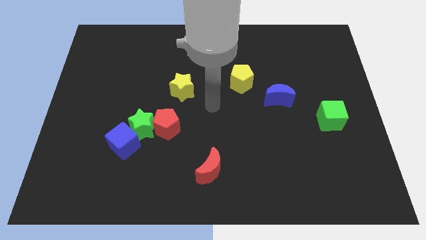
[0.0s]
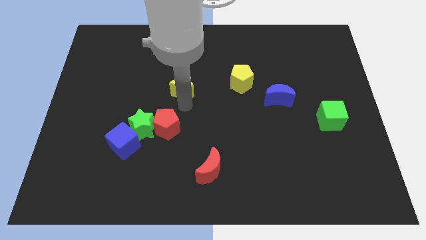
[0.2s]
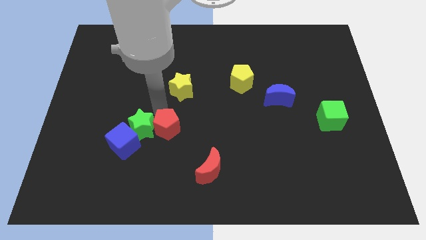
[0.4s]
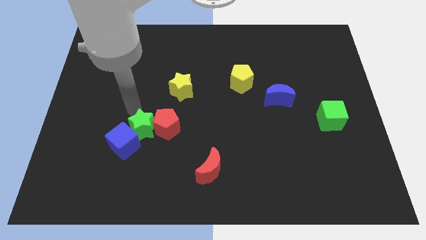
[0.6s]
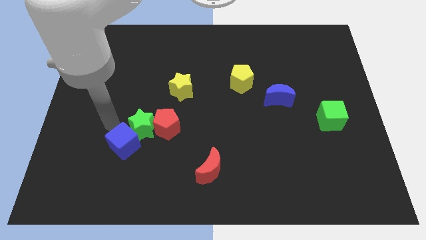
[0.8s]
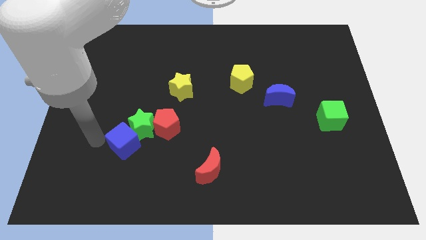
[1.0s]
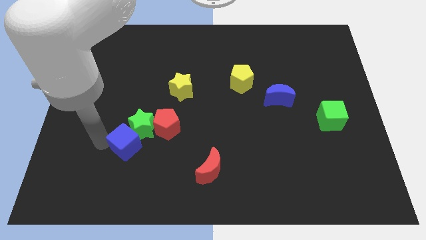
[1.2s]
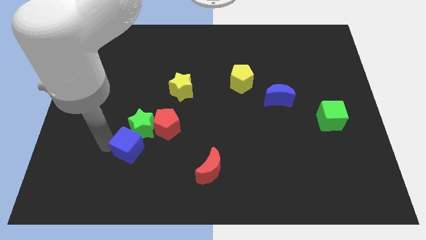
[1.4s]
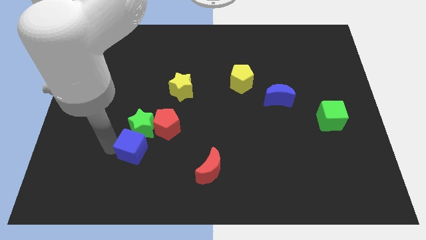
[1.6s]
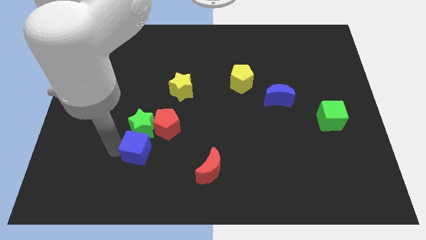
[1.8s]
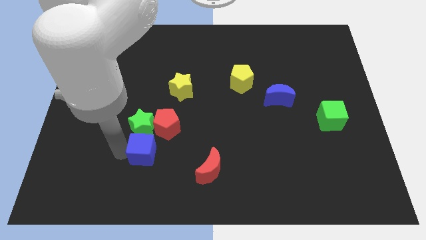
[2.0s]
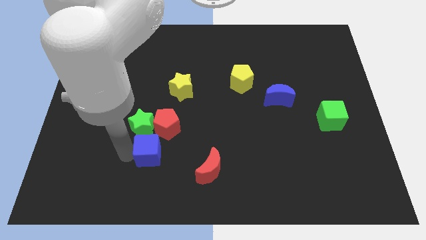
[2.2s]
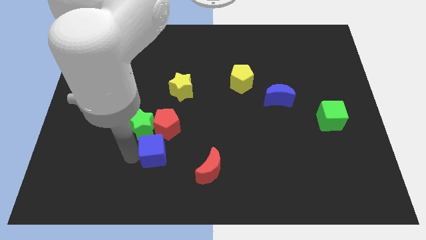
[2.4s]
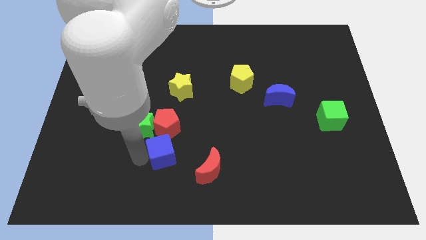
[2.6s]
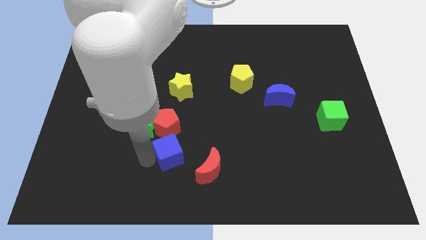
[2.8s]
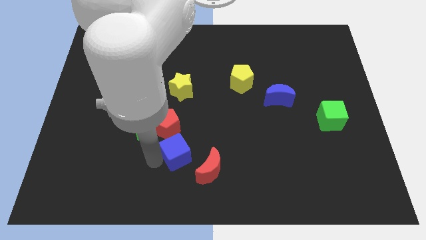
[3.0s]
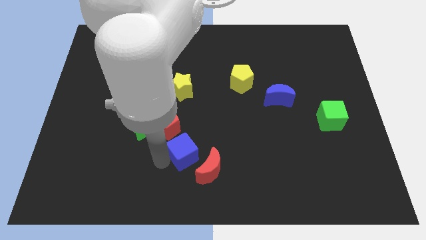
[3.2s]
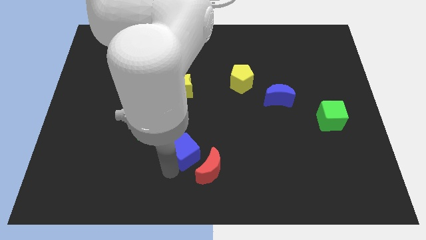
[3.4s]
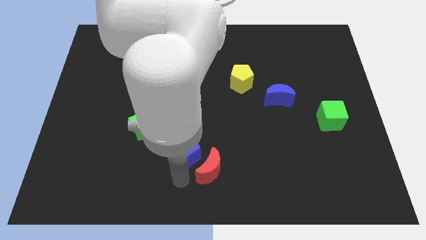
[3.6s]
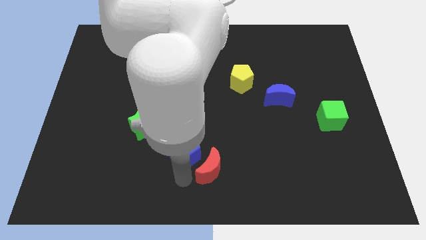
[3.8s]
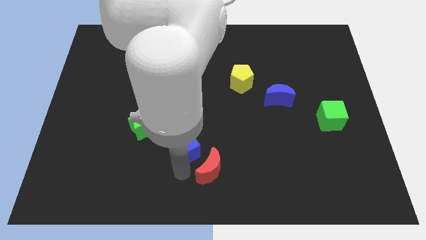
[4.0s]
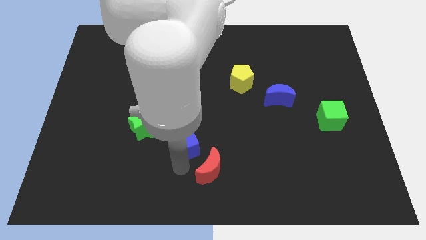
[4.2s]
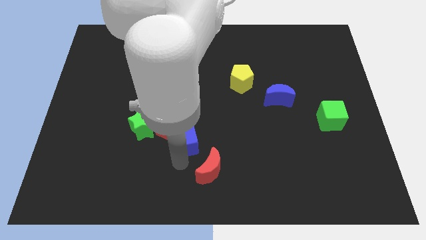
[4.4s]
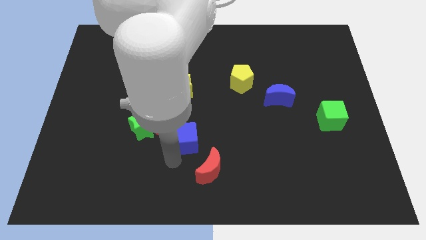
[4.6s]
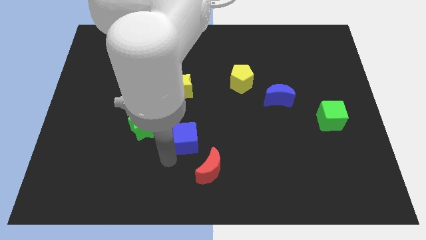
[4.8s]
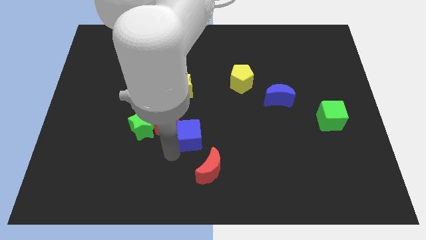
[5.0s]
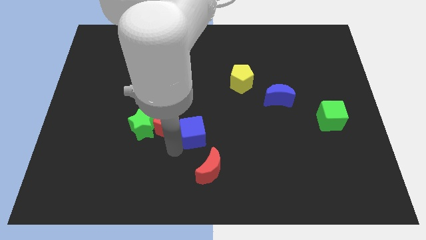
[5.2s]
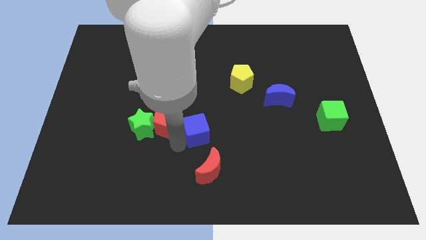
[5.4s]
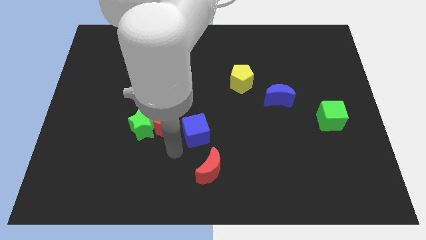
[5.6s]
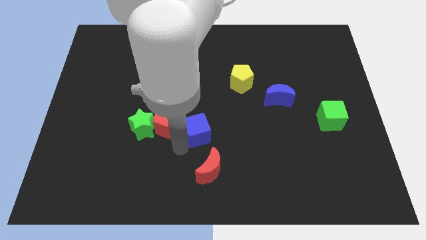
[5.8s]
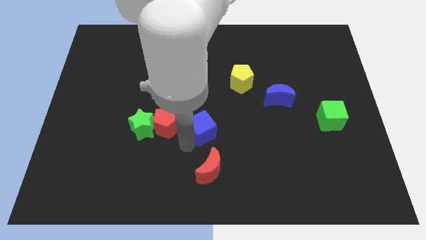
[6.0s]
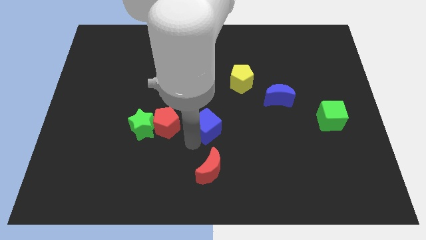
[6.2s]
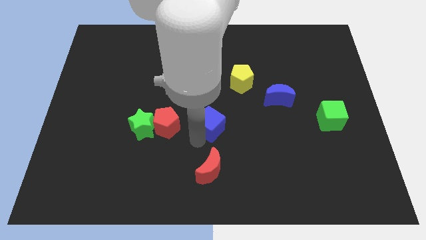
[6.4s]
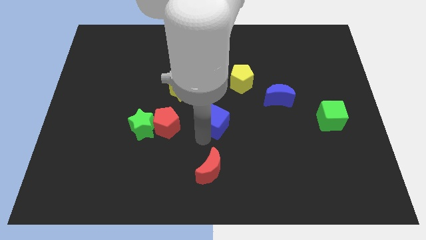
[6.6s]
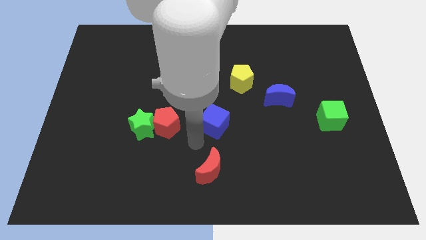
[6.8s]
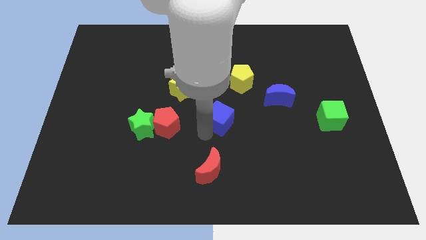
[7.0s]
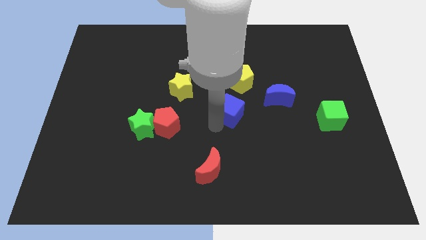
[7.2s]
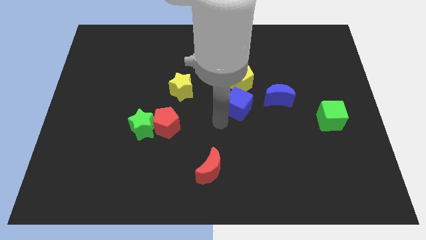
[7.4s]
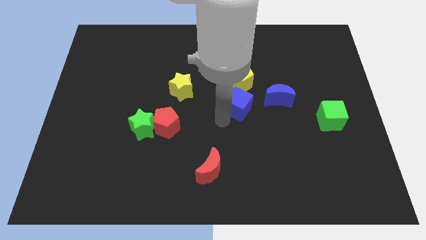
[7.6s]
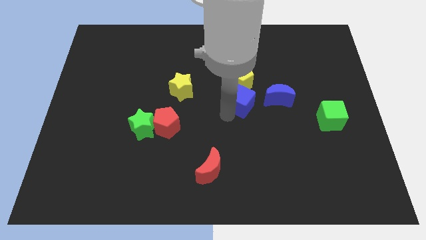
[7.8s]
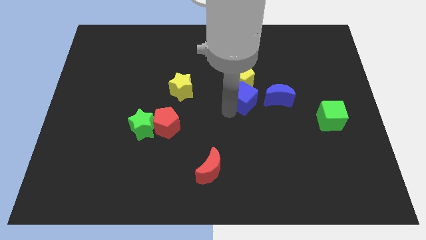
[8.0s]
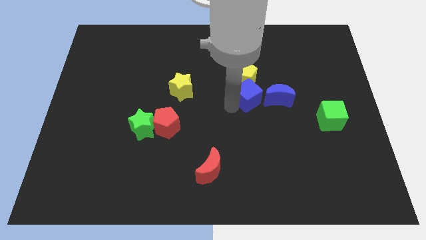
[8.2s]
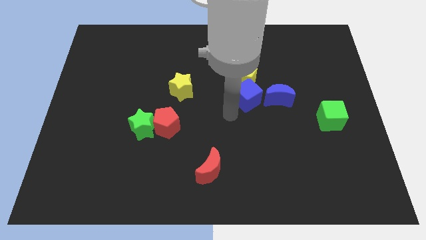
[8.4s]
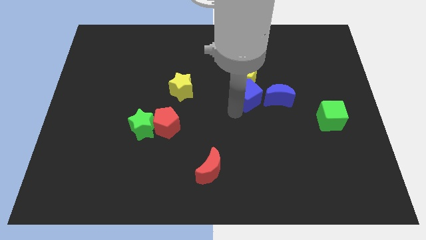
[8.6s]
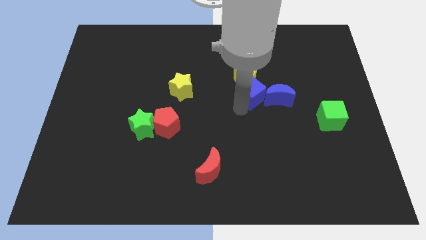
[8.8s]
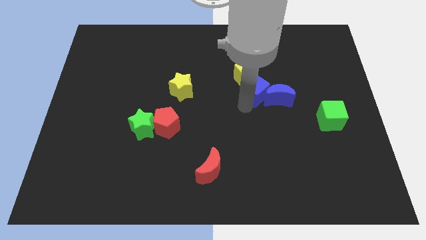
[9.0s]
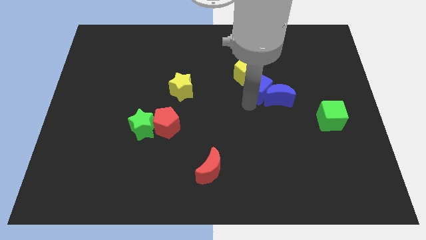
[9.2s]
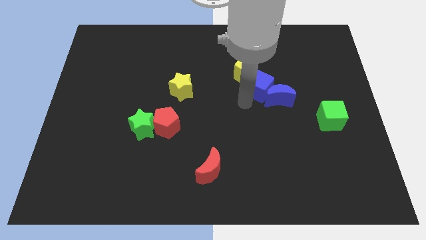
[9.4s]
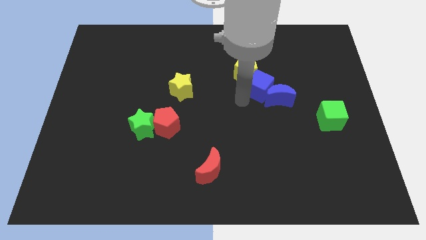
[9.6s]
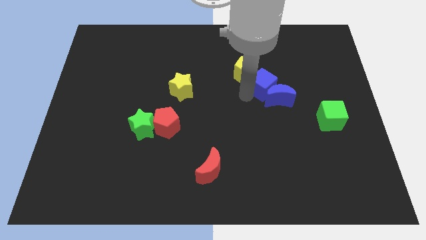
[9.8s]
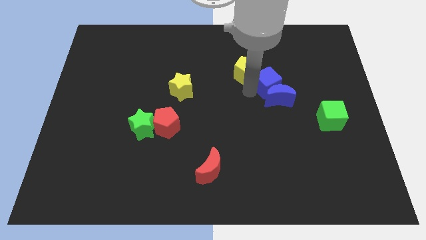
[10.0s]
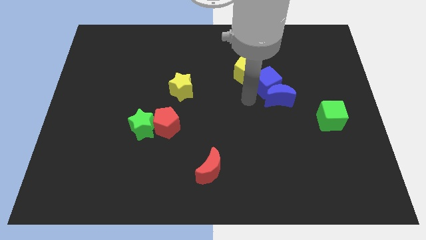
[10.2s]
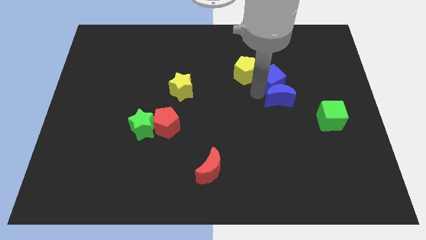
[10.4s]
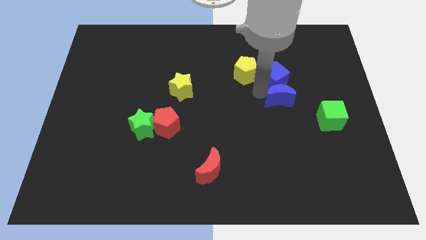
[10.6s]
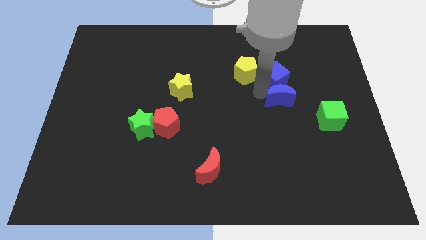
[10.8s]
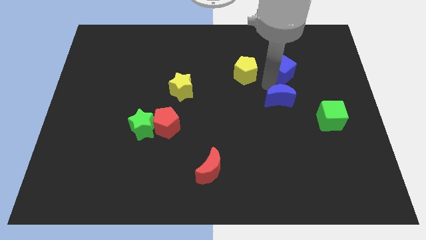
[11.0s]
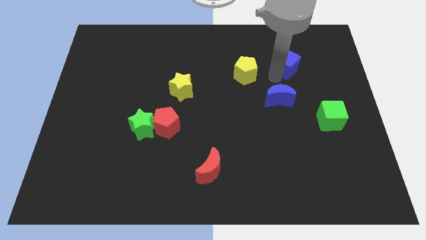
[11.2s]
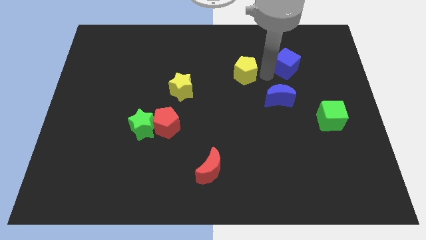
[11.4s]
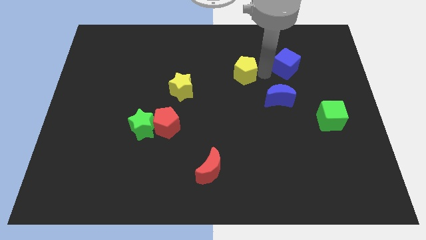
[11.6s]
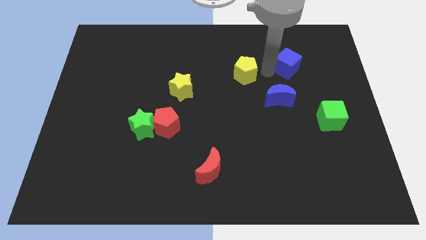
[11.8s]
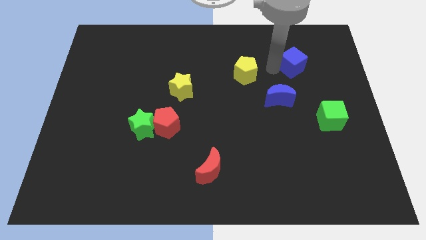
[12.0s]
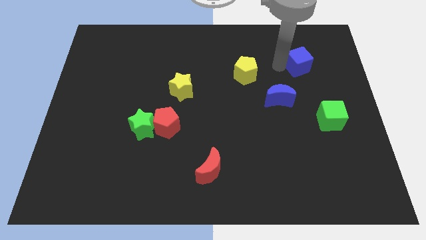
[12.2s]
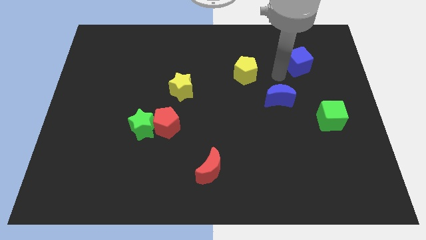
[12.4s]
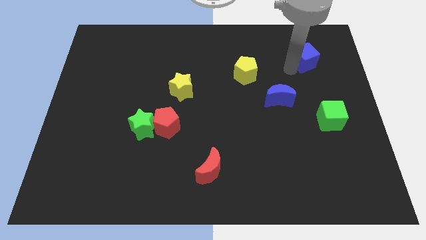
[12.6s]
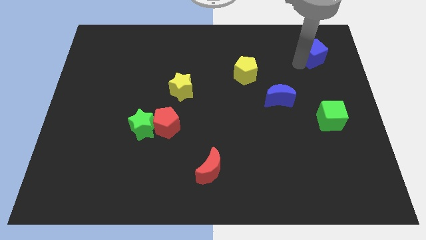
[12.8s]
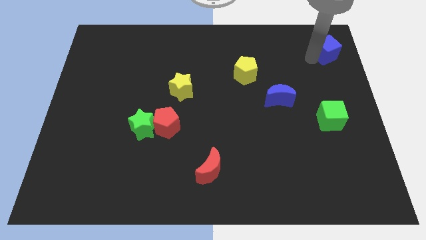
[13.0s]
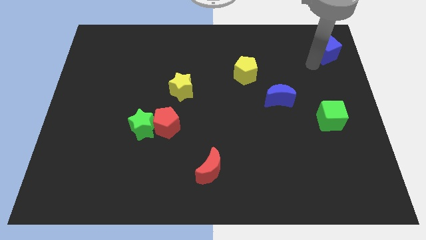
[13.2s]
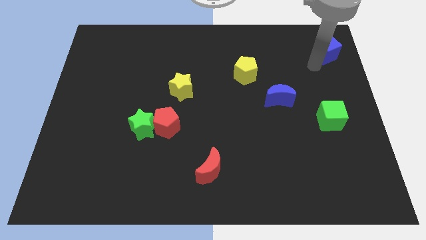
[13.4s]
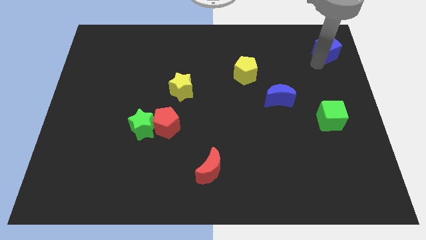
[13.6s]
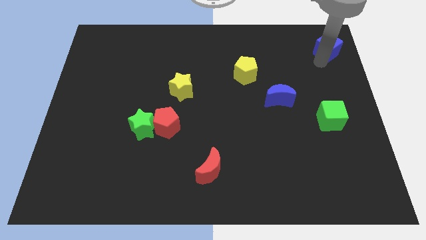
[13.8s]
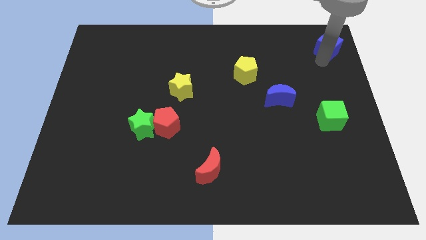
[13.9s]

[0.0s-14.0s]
move the blue cube to the top right of the board
